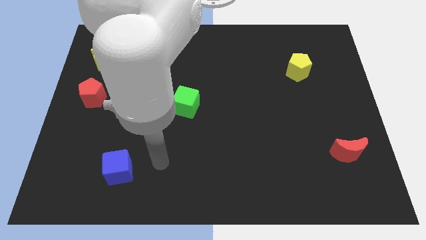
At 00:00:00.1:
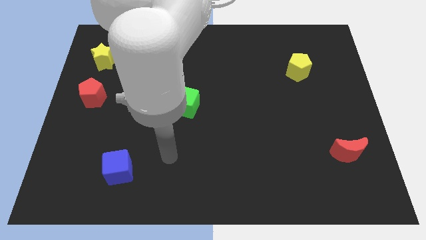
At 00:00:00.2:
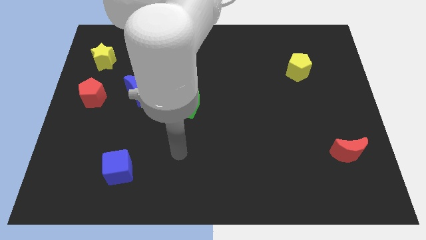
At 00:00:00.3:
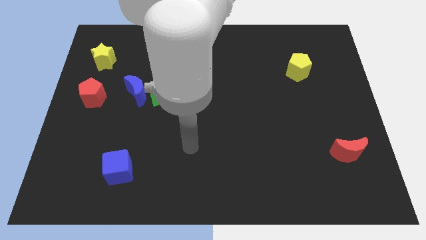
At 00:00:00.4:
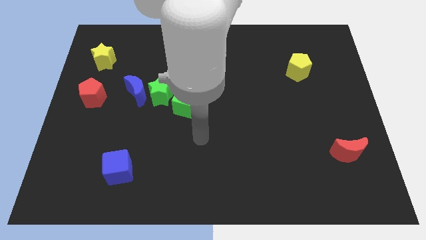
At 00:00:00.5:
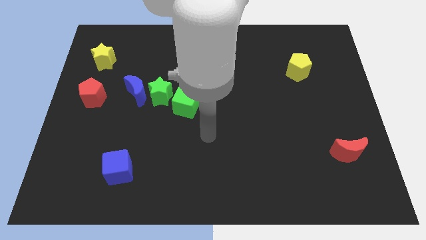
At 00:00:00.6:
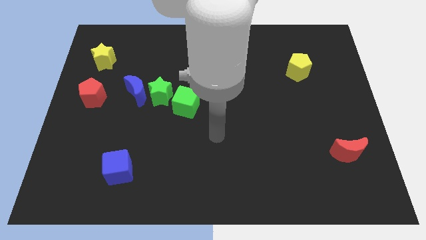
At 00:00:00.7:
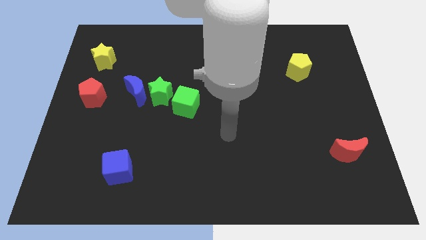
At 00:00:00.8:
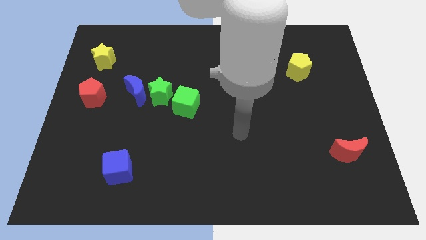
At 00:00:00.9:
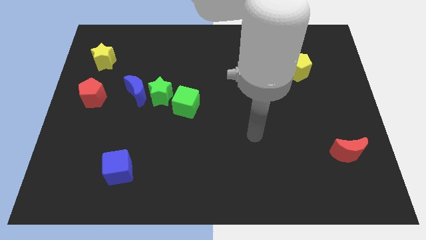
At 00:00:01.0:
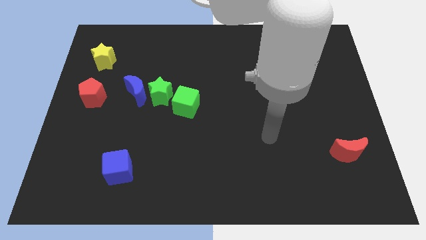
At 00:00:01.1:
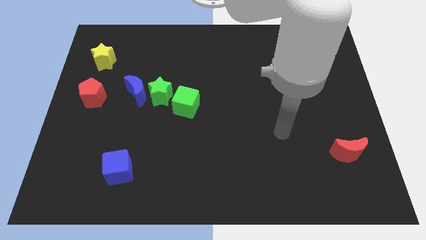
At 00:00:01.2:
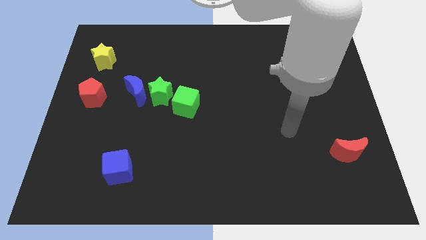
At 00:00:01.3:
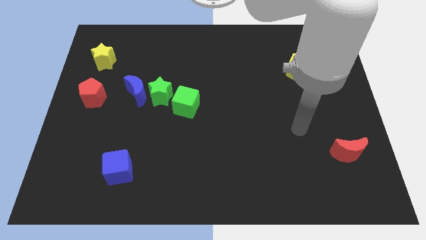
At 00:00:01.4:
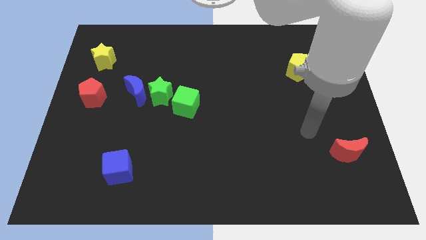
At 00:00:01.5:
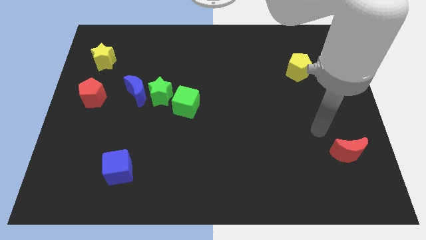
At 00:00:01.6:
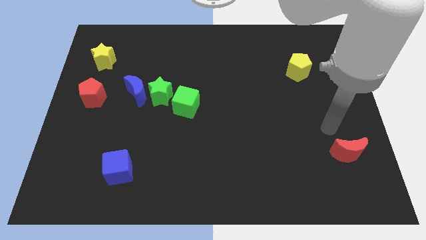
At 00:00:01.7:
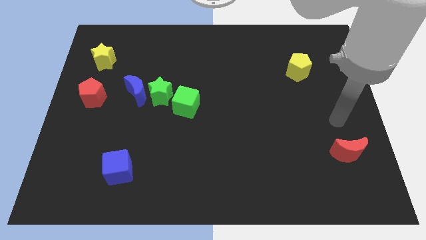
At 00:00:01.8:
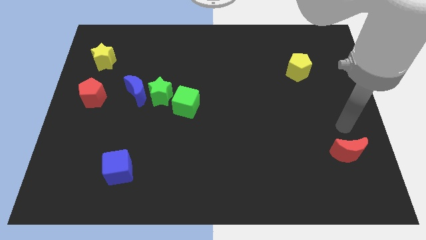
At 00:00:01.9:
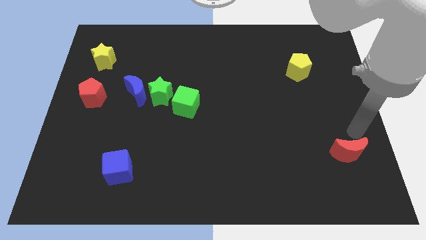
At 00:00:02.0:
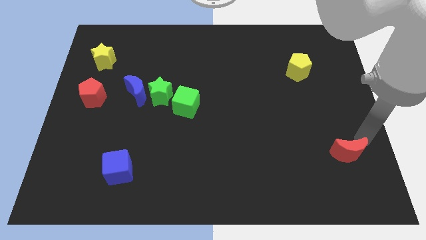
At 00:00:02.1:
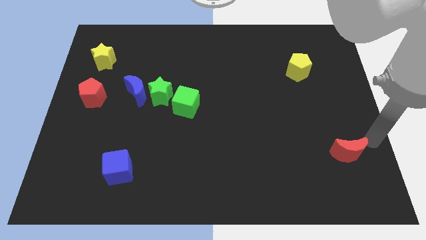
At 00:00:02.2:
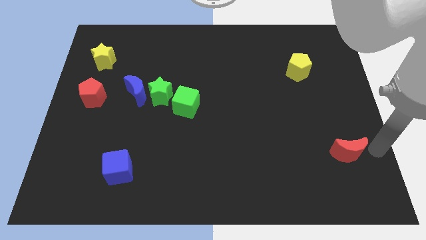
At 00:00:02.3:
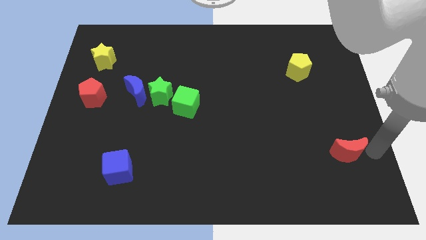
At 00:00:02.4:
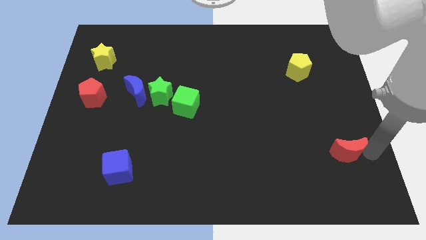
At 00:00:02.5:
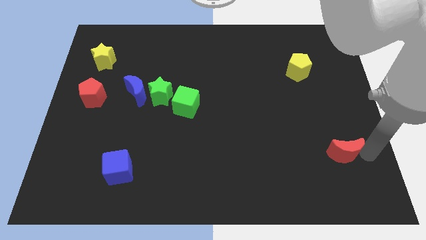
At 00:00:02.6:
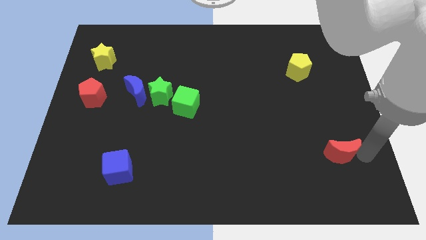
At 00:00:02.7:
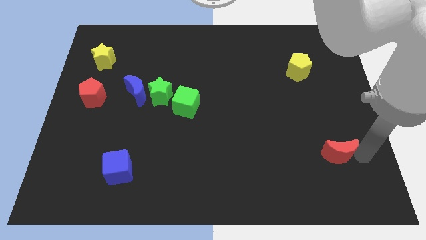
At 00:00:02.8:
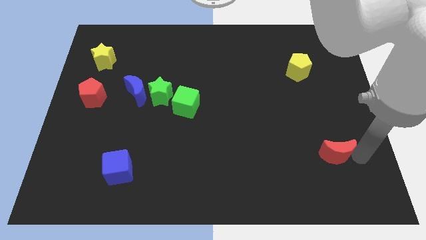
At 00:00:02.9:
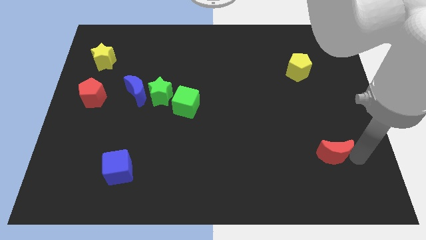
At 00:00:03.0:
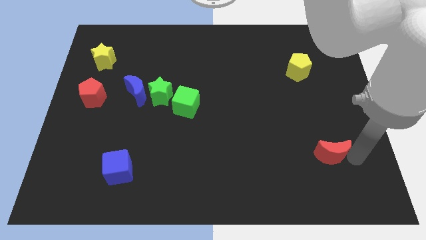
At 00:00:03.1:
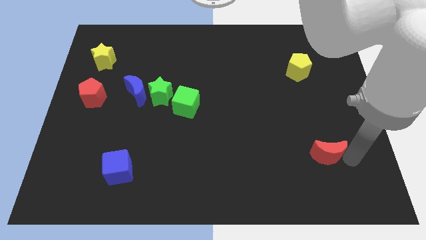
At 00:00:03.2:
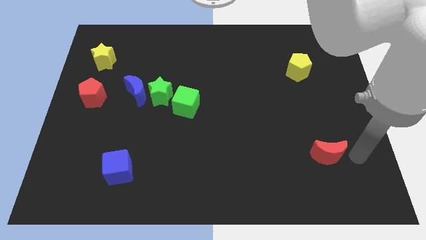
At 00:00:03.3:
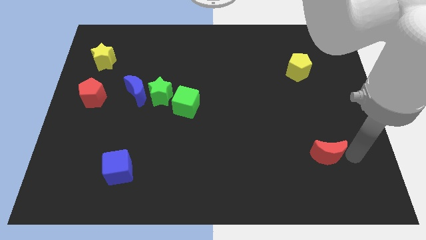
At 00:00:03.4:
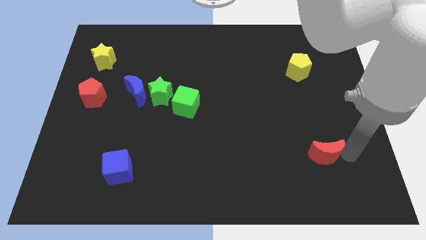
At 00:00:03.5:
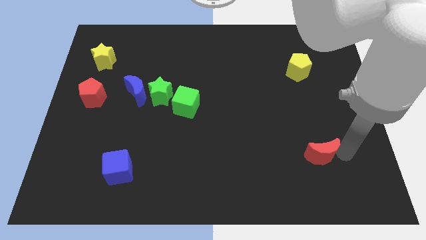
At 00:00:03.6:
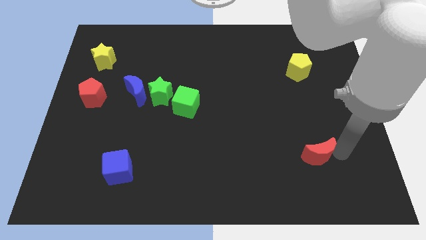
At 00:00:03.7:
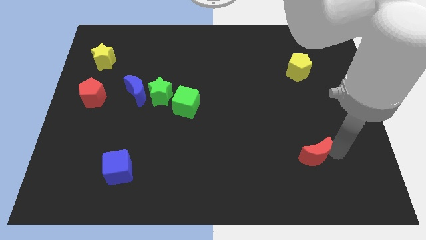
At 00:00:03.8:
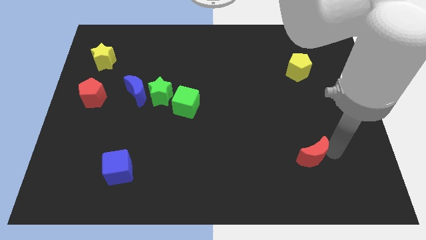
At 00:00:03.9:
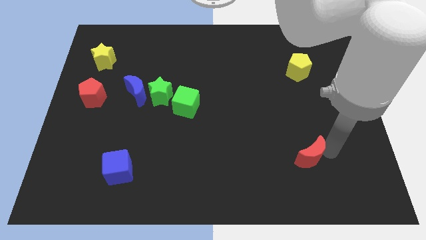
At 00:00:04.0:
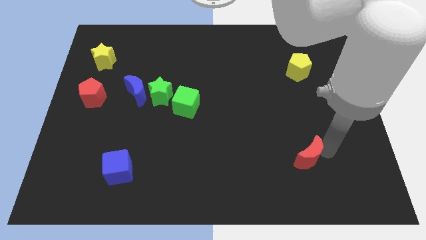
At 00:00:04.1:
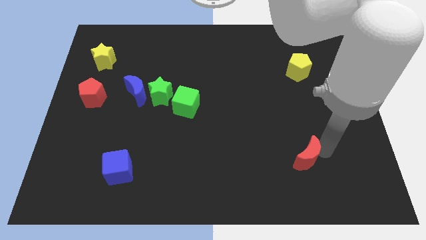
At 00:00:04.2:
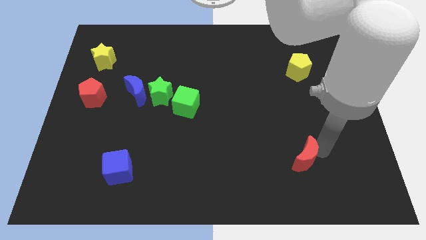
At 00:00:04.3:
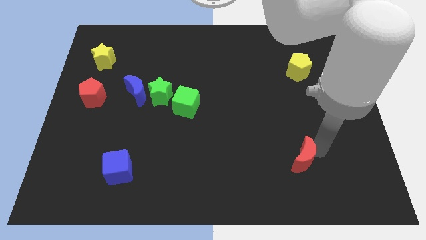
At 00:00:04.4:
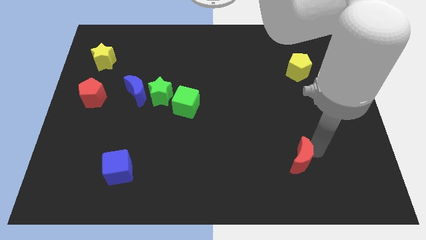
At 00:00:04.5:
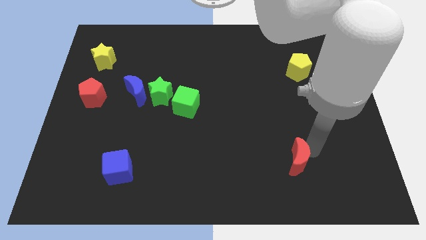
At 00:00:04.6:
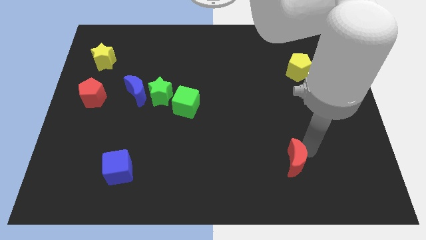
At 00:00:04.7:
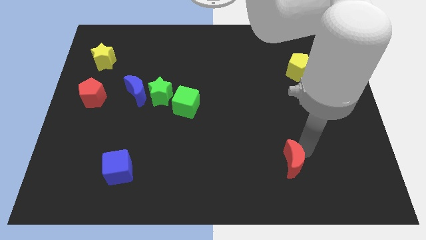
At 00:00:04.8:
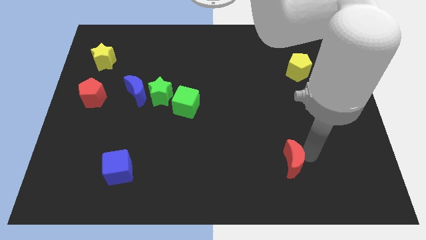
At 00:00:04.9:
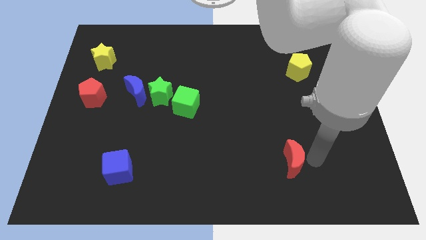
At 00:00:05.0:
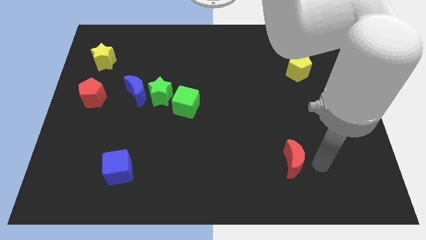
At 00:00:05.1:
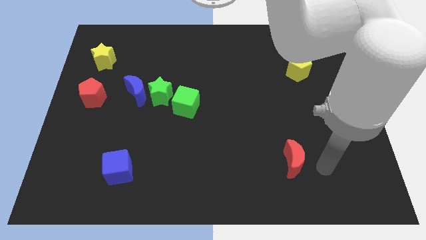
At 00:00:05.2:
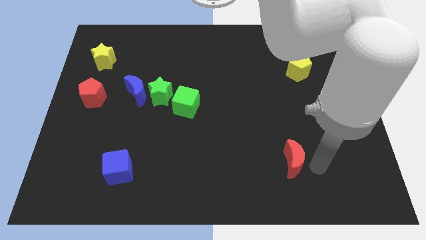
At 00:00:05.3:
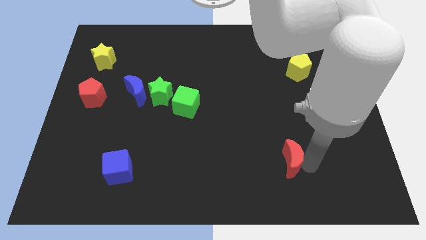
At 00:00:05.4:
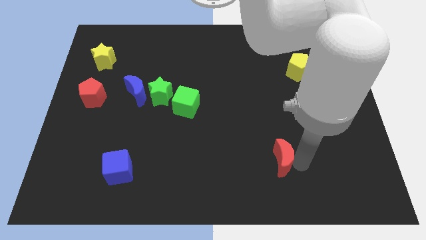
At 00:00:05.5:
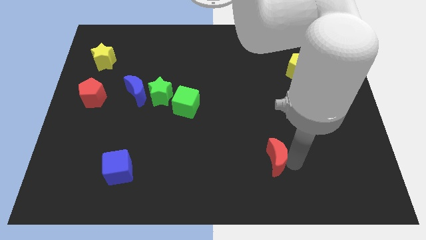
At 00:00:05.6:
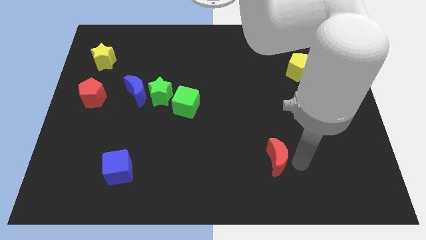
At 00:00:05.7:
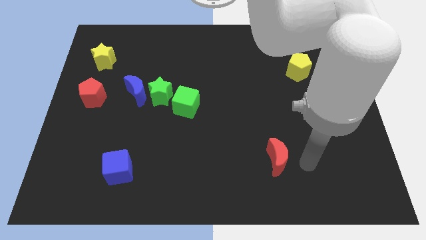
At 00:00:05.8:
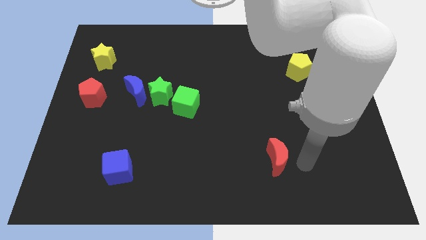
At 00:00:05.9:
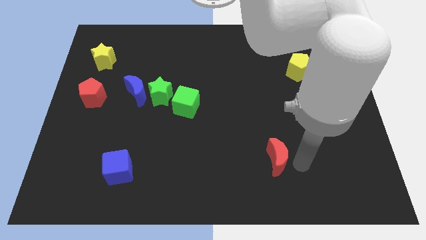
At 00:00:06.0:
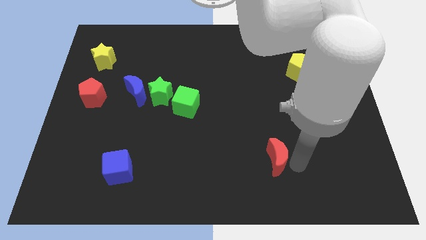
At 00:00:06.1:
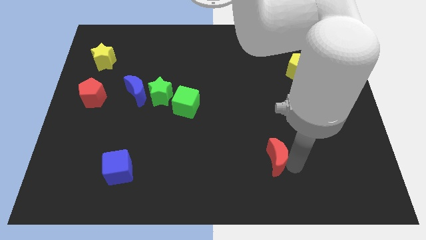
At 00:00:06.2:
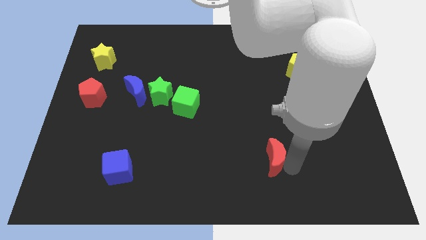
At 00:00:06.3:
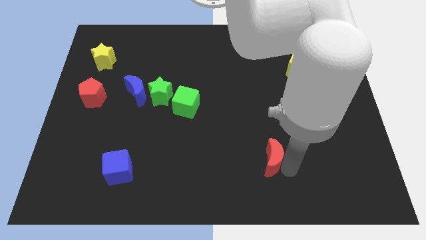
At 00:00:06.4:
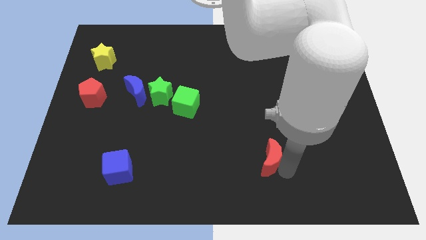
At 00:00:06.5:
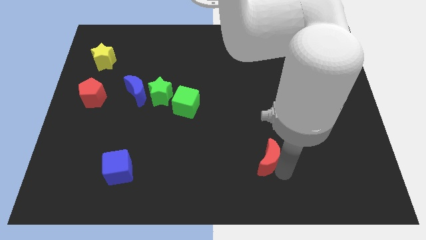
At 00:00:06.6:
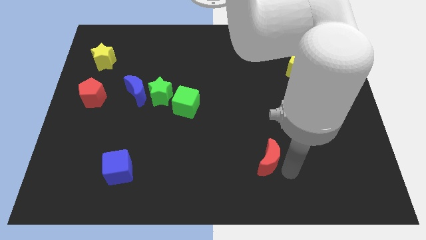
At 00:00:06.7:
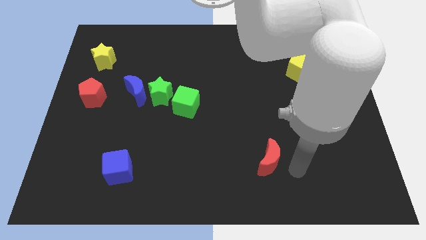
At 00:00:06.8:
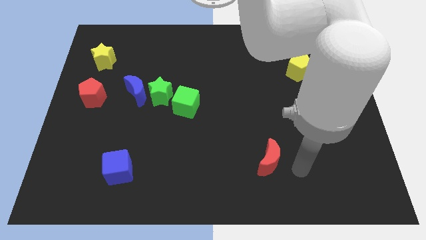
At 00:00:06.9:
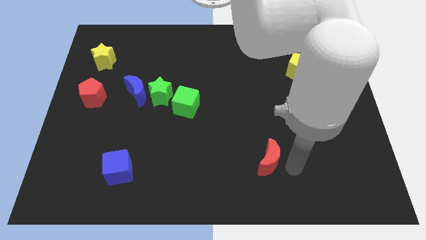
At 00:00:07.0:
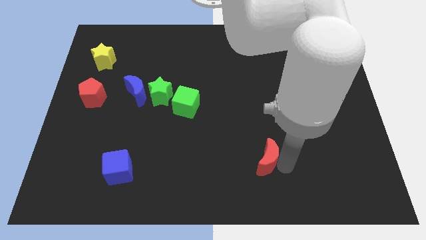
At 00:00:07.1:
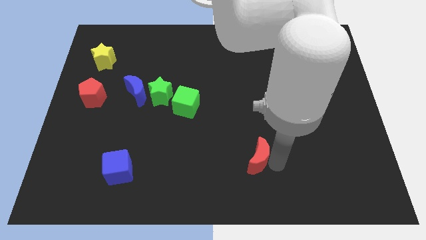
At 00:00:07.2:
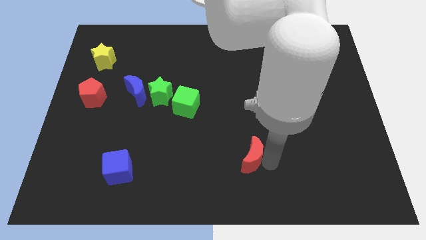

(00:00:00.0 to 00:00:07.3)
push the red moon left

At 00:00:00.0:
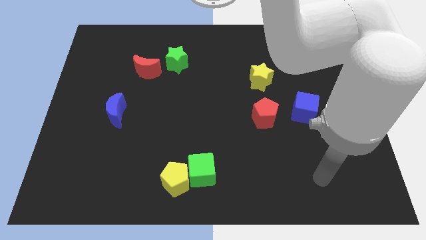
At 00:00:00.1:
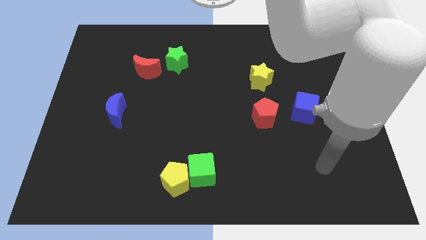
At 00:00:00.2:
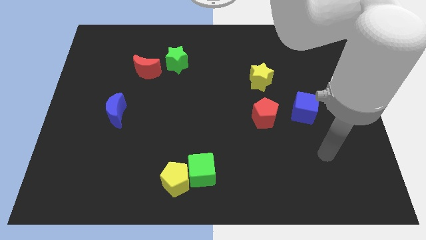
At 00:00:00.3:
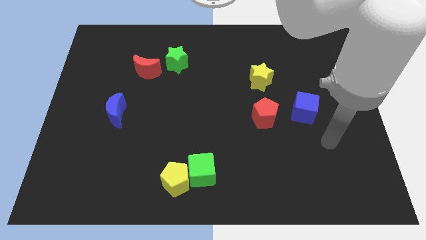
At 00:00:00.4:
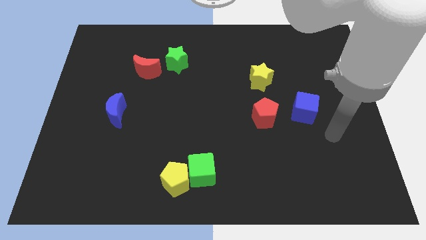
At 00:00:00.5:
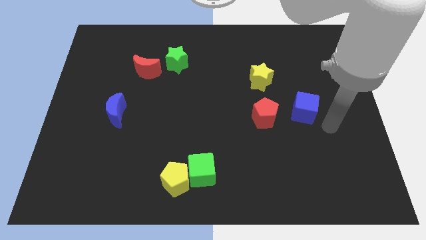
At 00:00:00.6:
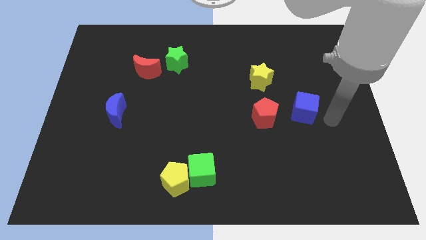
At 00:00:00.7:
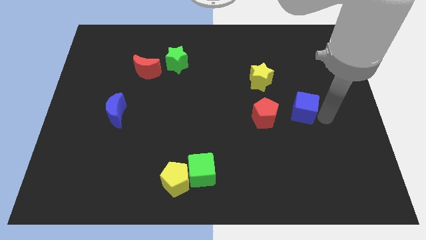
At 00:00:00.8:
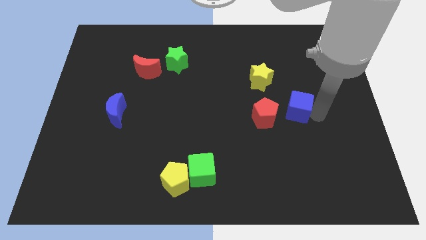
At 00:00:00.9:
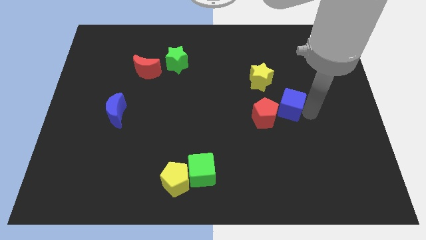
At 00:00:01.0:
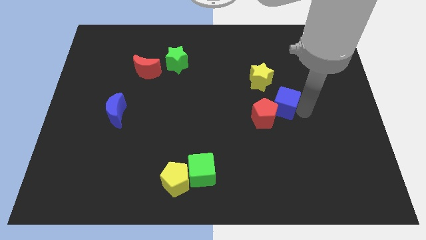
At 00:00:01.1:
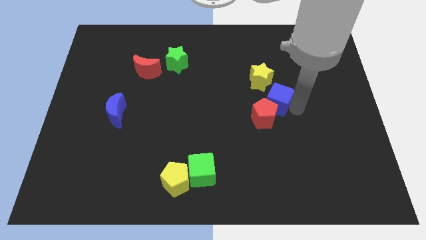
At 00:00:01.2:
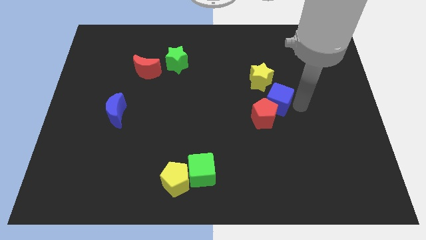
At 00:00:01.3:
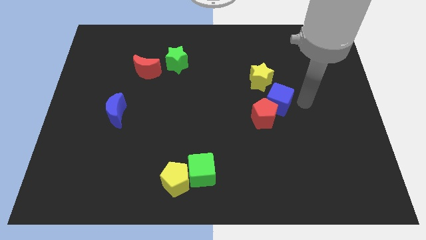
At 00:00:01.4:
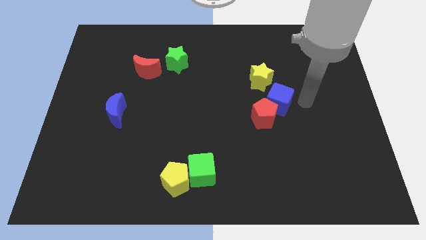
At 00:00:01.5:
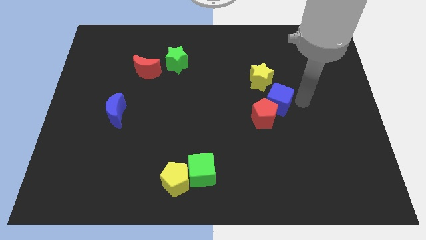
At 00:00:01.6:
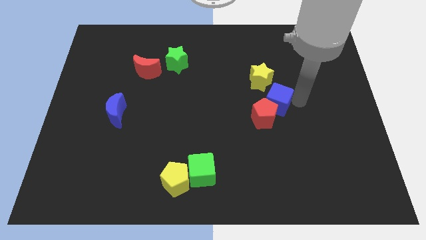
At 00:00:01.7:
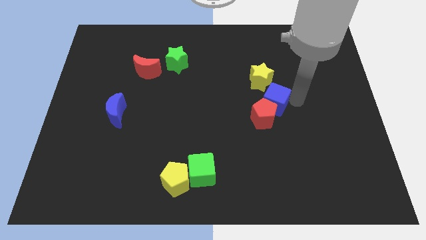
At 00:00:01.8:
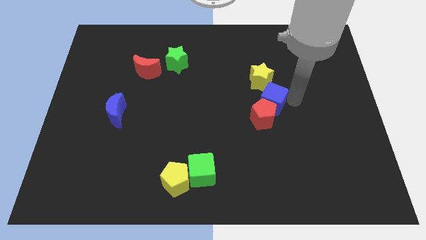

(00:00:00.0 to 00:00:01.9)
slightly slide the blue cube to the left
